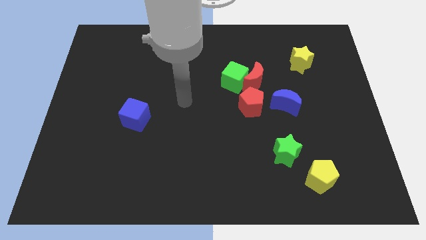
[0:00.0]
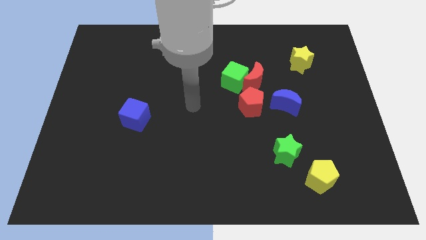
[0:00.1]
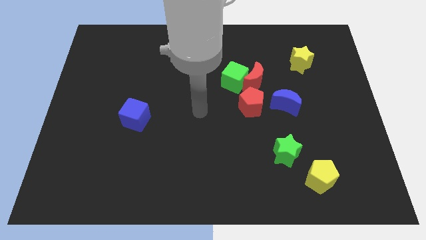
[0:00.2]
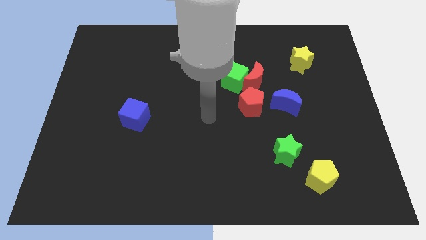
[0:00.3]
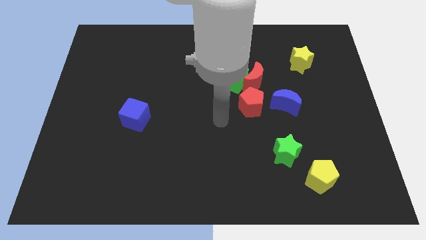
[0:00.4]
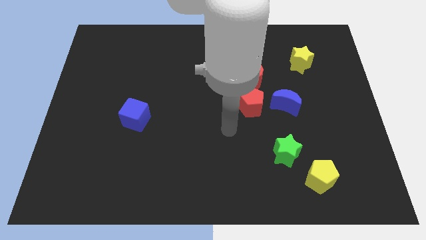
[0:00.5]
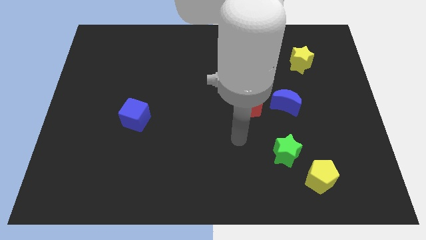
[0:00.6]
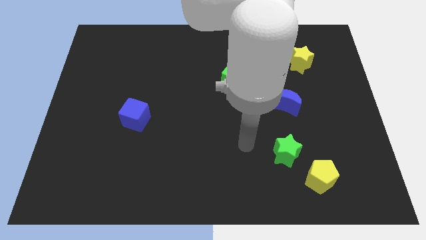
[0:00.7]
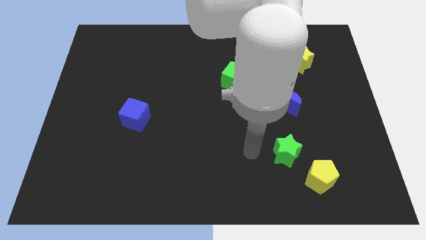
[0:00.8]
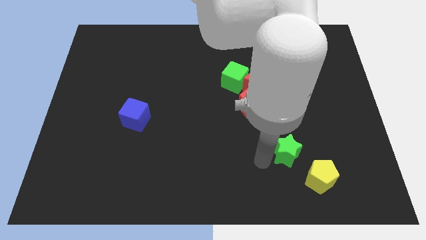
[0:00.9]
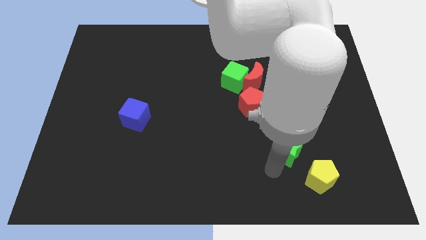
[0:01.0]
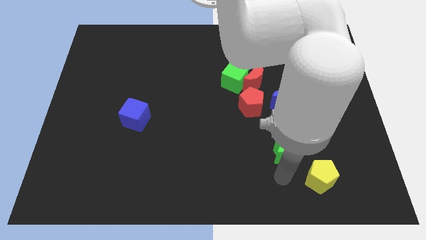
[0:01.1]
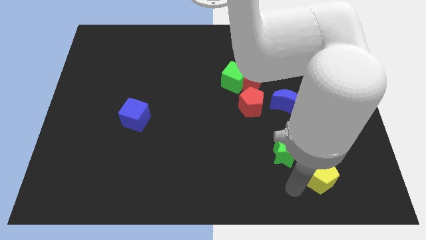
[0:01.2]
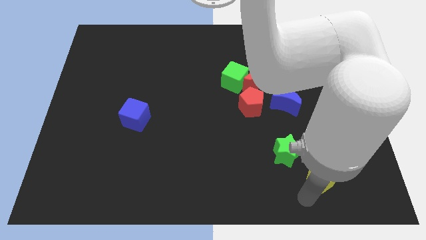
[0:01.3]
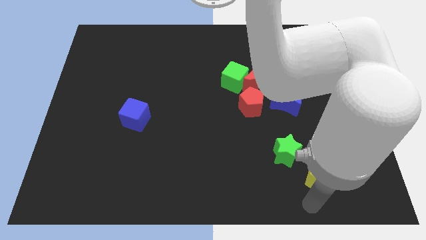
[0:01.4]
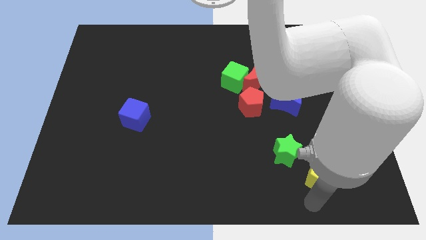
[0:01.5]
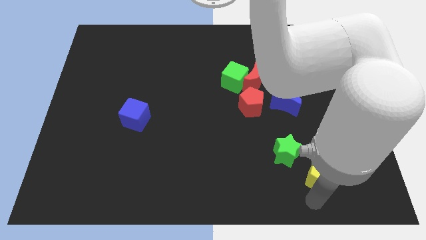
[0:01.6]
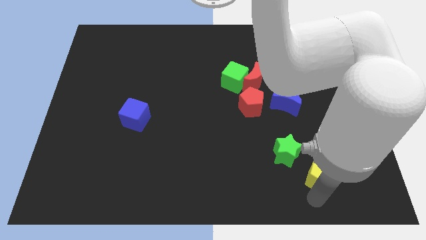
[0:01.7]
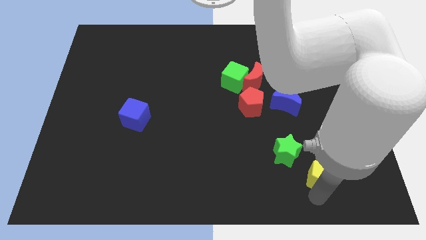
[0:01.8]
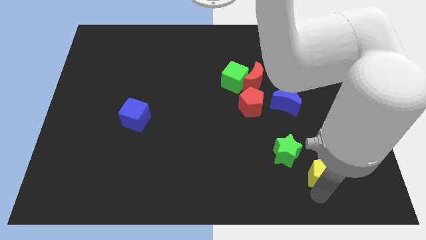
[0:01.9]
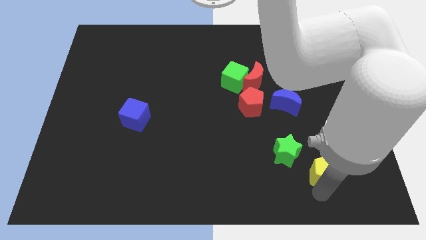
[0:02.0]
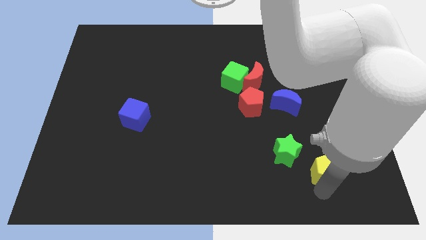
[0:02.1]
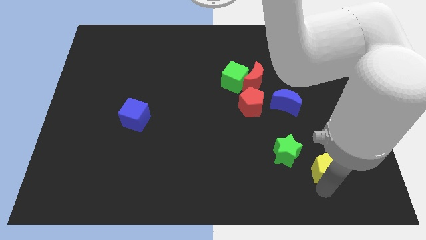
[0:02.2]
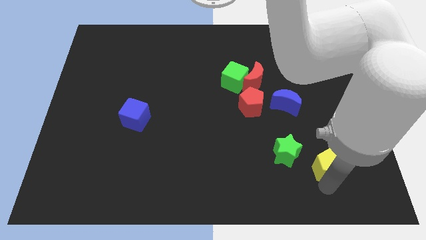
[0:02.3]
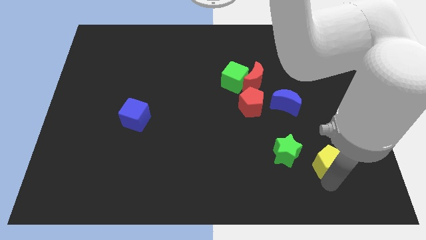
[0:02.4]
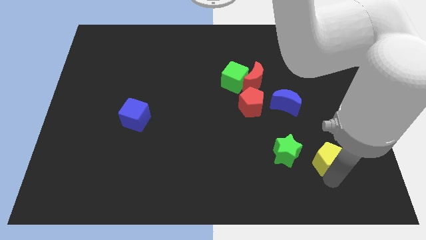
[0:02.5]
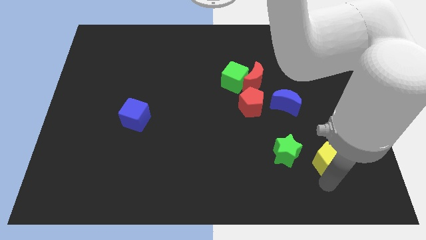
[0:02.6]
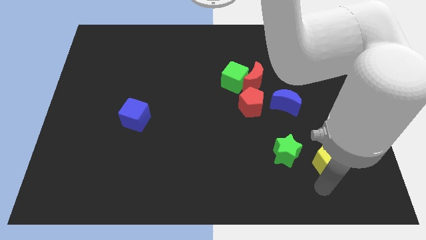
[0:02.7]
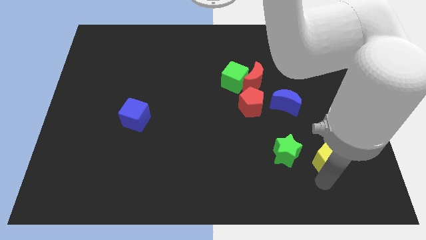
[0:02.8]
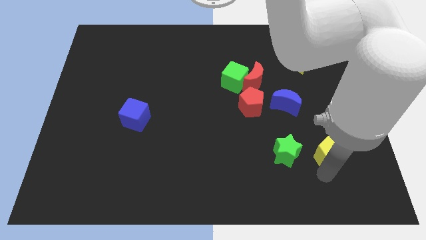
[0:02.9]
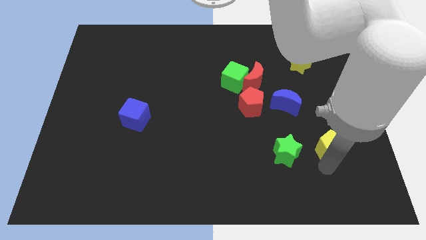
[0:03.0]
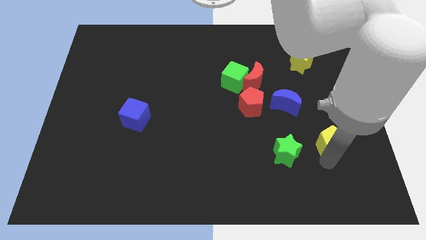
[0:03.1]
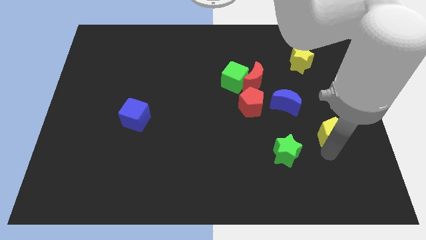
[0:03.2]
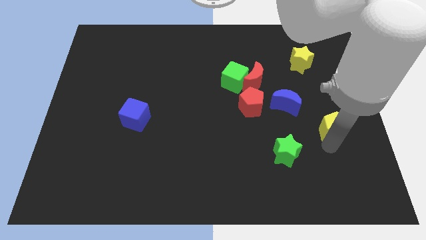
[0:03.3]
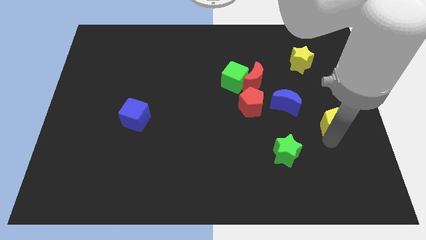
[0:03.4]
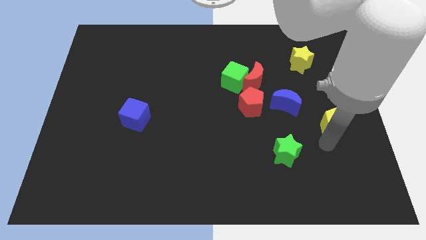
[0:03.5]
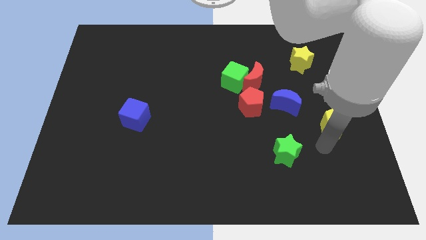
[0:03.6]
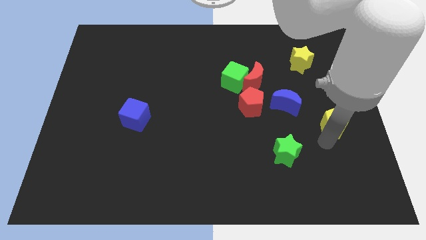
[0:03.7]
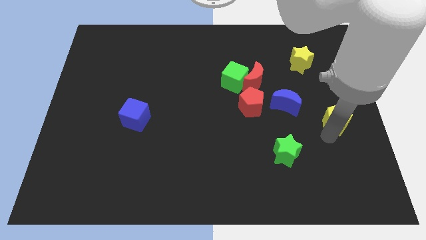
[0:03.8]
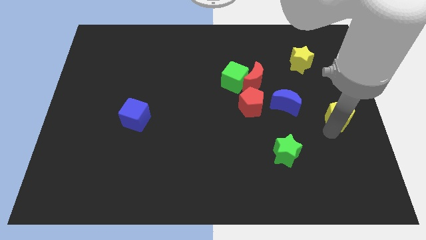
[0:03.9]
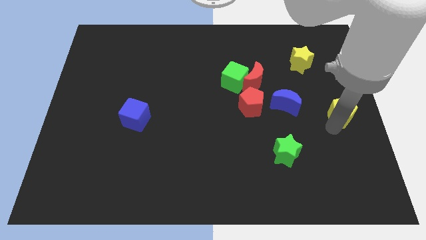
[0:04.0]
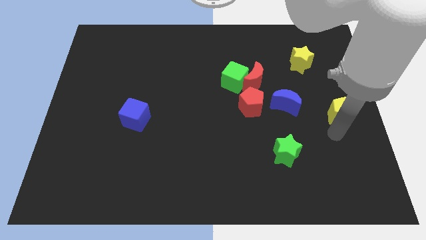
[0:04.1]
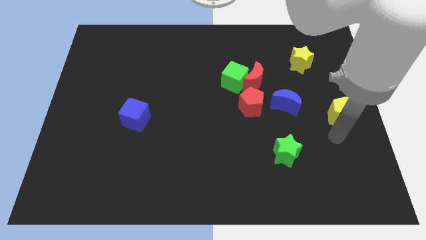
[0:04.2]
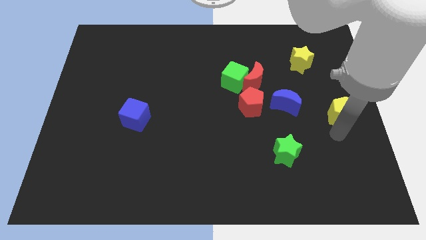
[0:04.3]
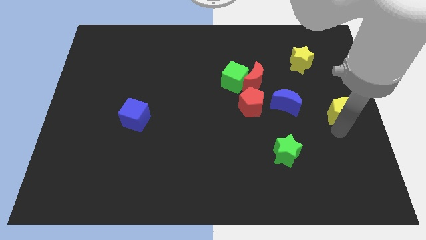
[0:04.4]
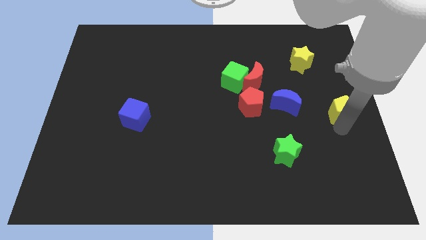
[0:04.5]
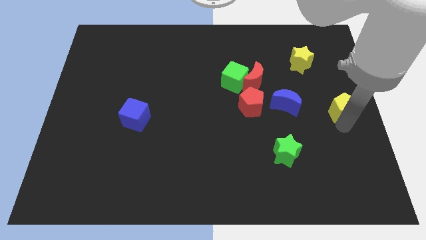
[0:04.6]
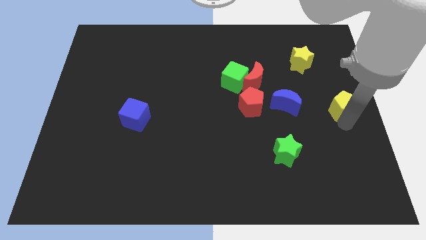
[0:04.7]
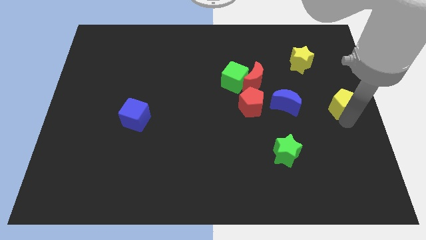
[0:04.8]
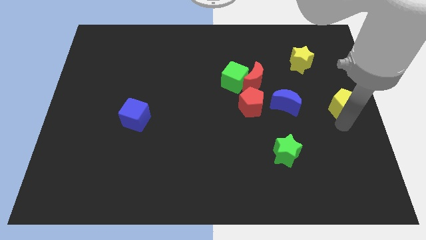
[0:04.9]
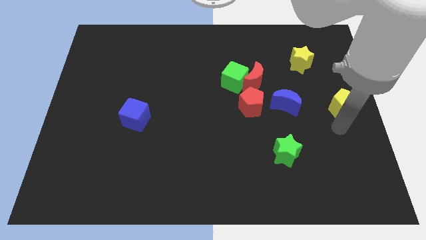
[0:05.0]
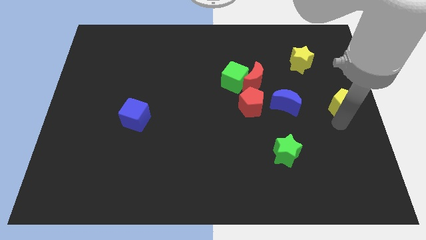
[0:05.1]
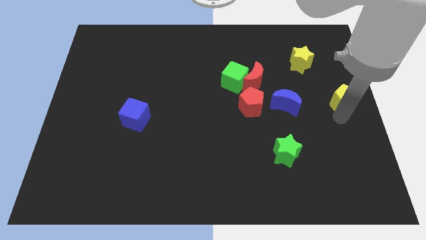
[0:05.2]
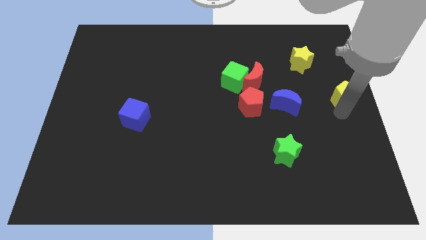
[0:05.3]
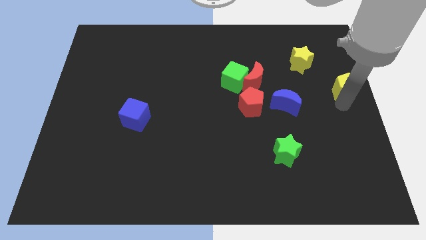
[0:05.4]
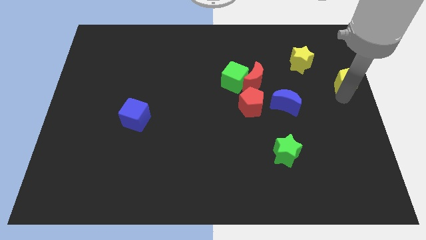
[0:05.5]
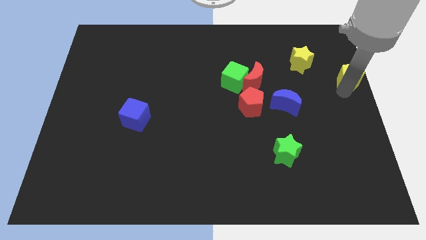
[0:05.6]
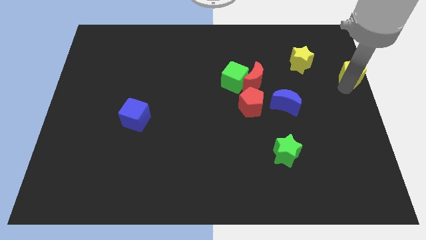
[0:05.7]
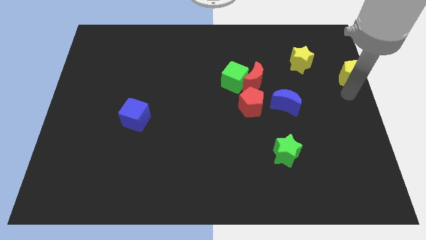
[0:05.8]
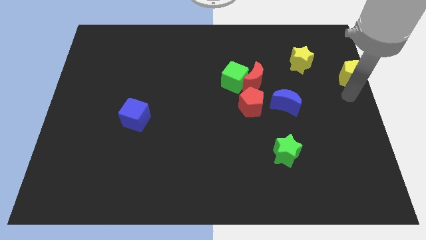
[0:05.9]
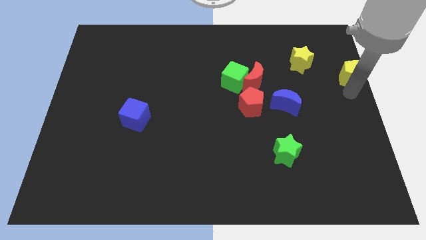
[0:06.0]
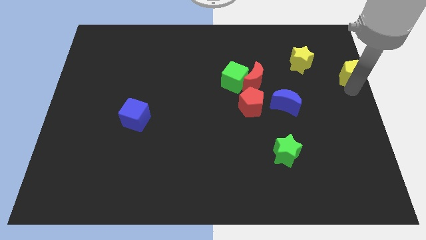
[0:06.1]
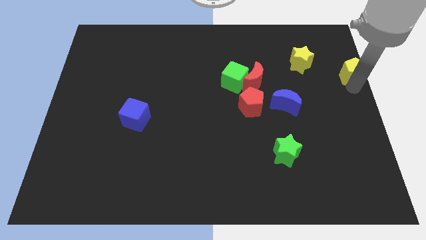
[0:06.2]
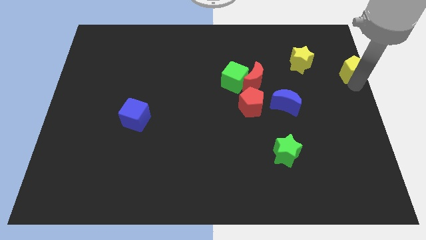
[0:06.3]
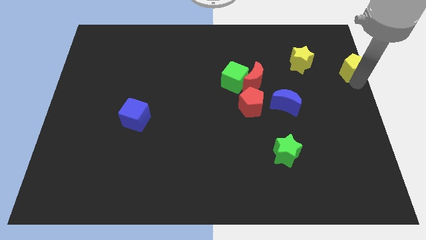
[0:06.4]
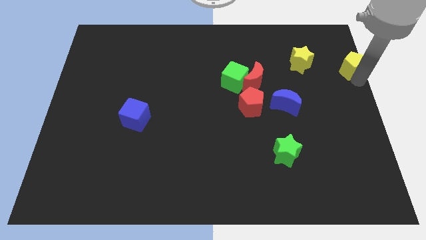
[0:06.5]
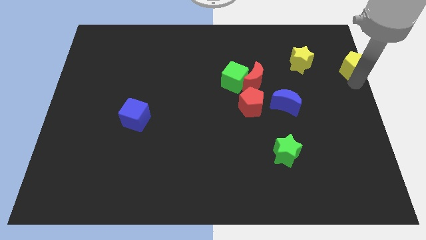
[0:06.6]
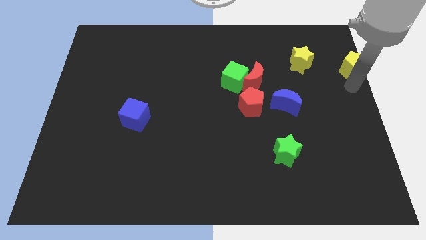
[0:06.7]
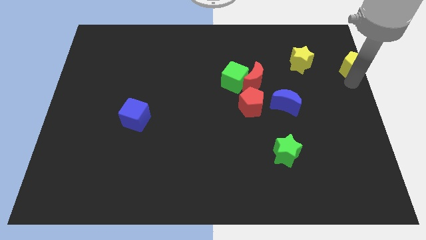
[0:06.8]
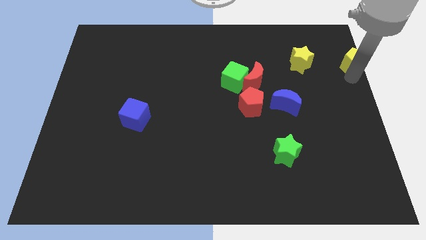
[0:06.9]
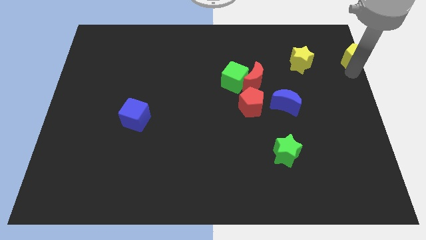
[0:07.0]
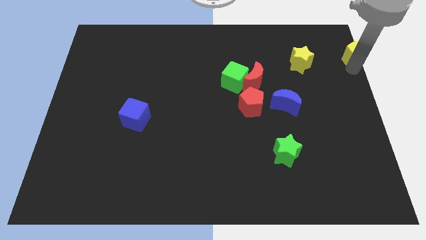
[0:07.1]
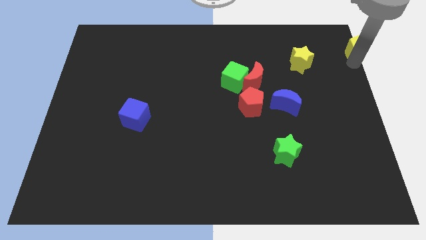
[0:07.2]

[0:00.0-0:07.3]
move the yellow pentagon to the upper right corner
